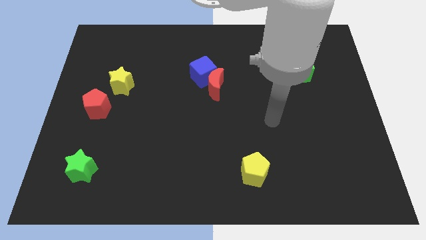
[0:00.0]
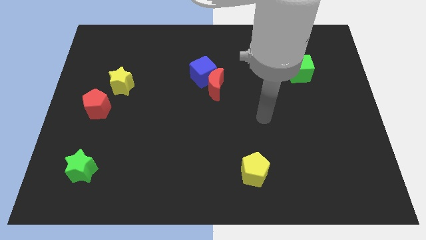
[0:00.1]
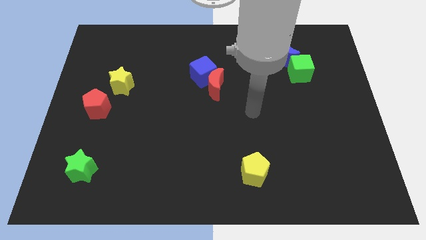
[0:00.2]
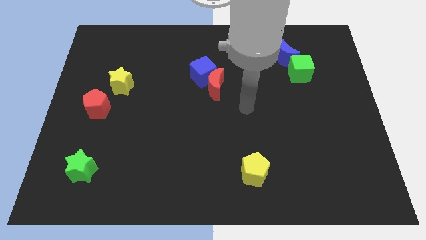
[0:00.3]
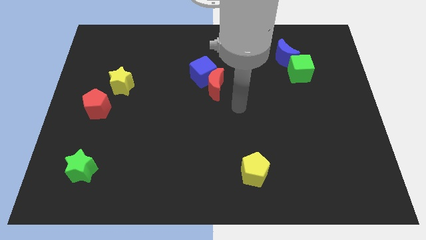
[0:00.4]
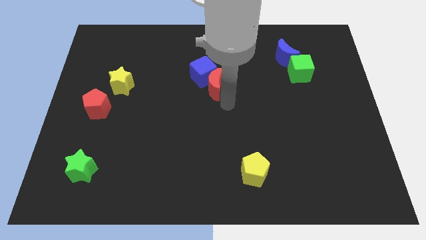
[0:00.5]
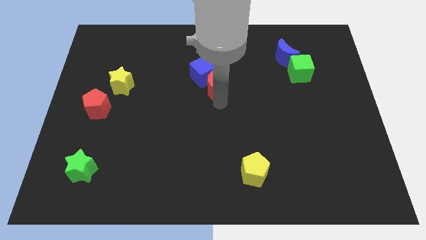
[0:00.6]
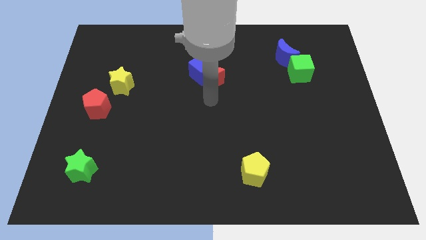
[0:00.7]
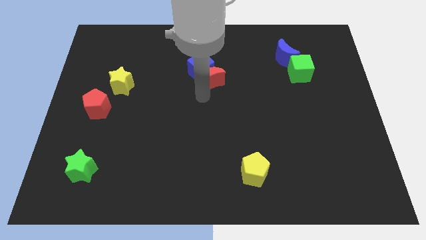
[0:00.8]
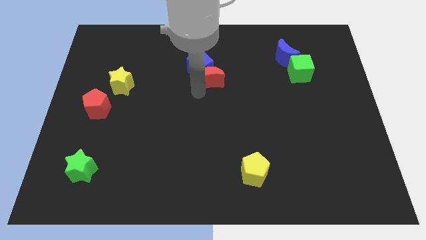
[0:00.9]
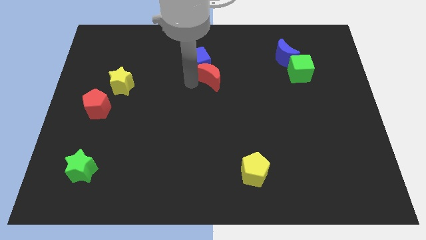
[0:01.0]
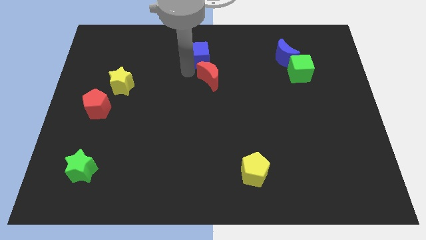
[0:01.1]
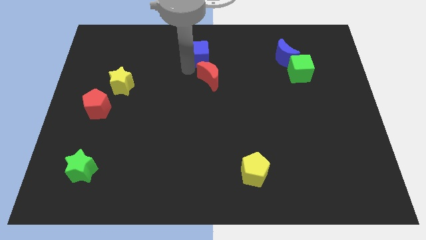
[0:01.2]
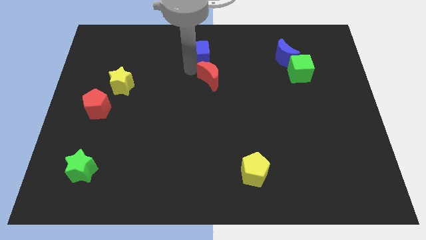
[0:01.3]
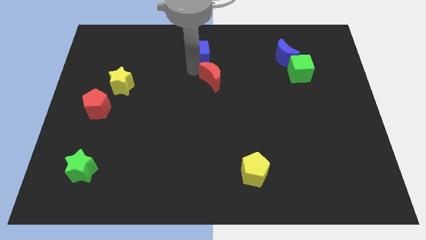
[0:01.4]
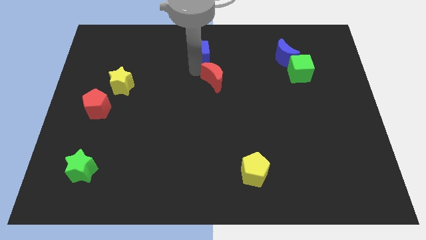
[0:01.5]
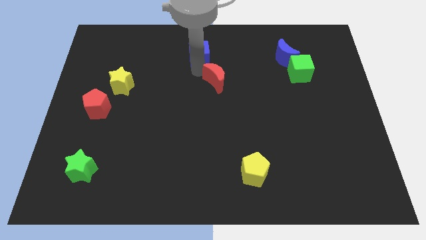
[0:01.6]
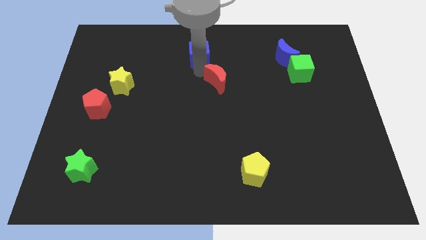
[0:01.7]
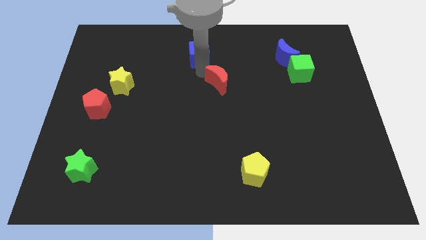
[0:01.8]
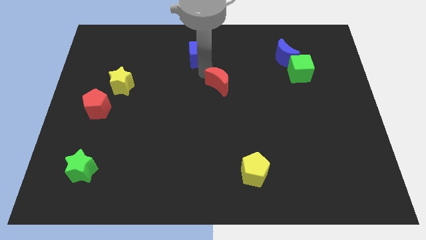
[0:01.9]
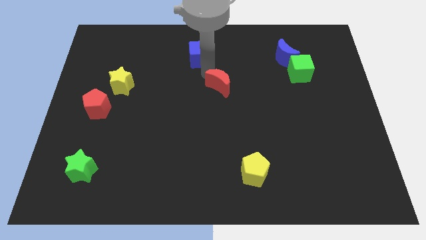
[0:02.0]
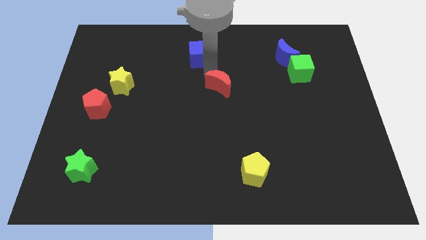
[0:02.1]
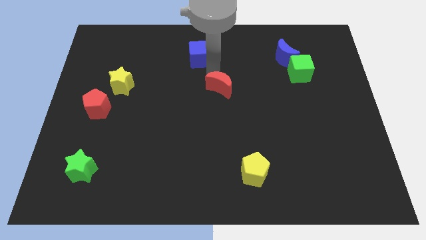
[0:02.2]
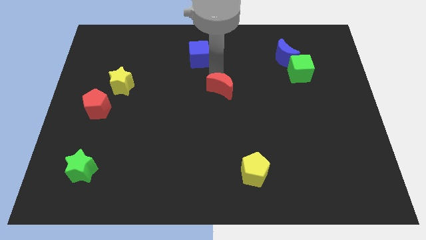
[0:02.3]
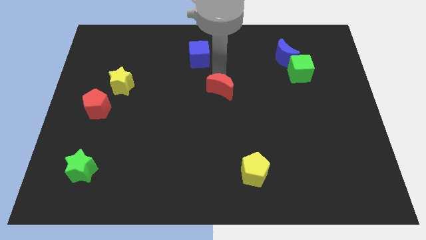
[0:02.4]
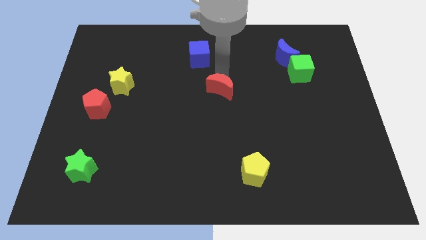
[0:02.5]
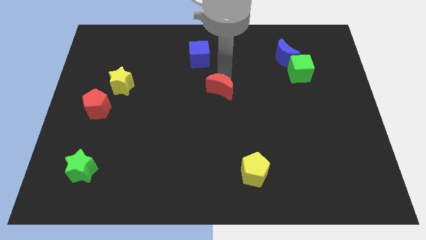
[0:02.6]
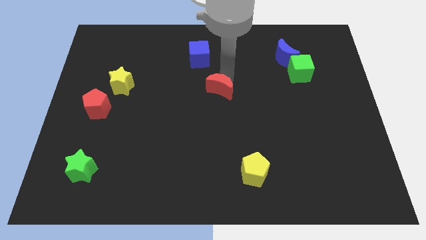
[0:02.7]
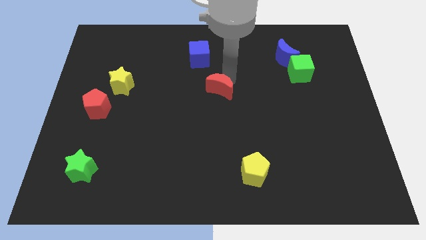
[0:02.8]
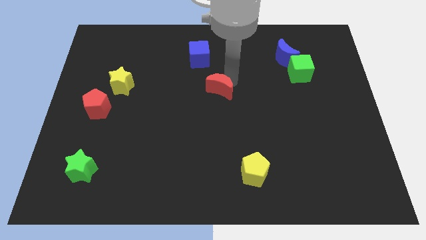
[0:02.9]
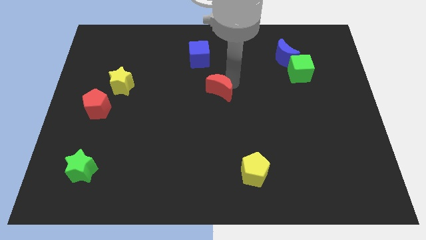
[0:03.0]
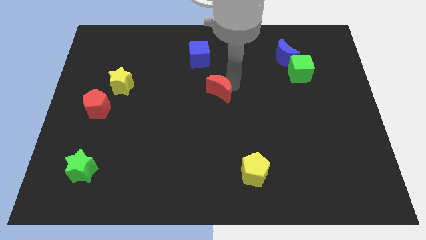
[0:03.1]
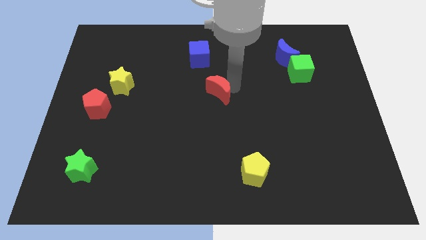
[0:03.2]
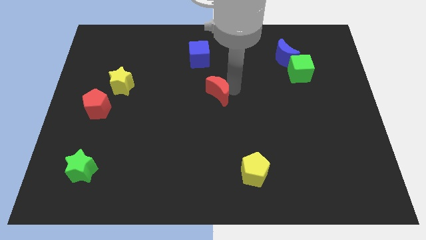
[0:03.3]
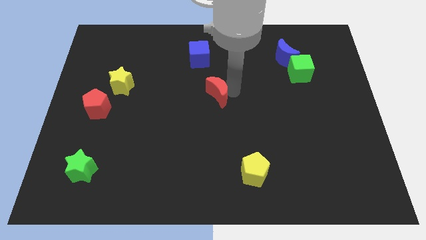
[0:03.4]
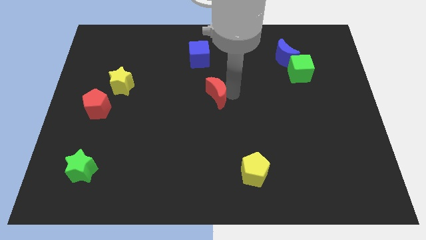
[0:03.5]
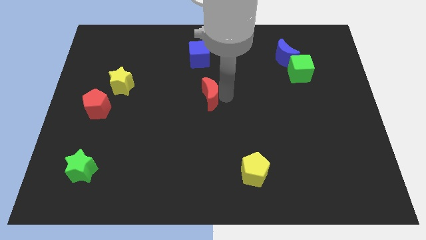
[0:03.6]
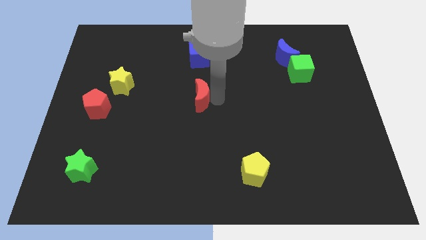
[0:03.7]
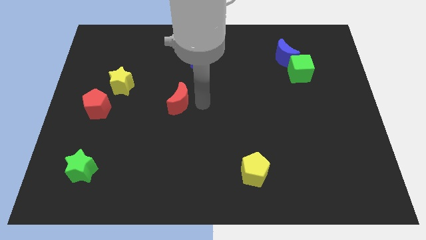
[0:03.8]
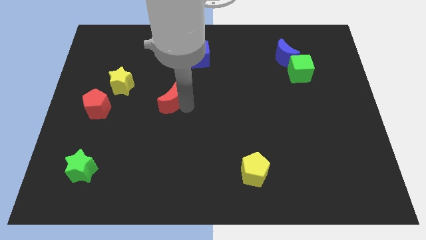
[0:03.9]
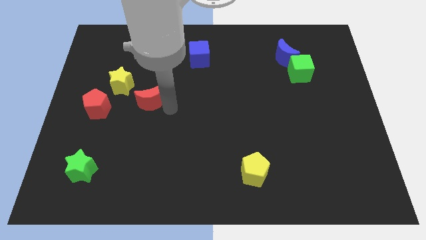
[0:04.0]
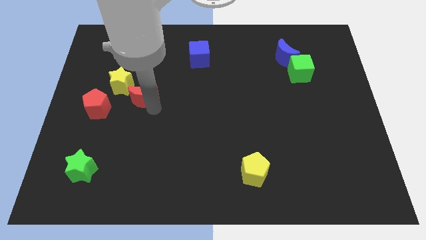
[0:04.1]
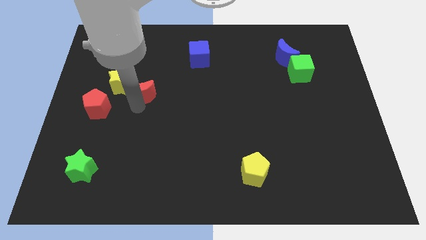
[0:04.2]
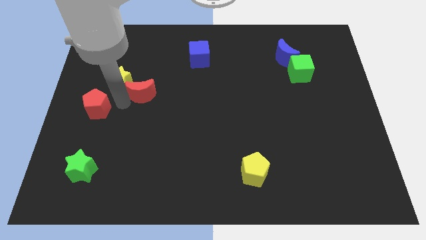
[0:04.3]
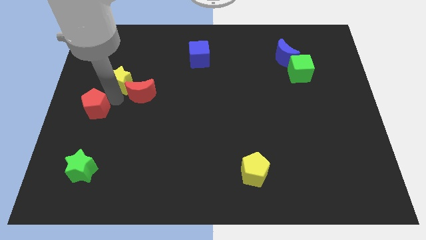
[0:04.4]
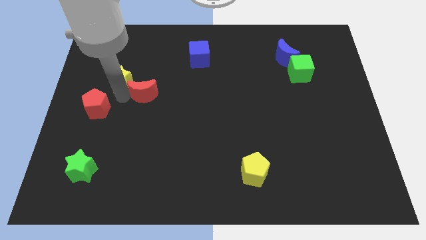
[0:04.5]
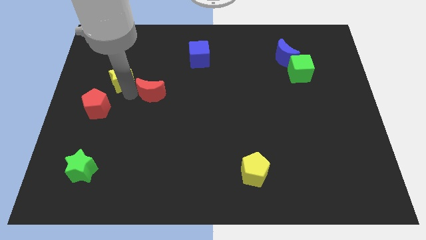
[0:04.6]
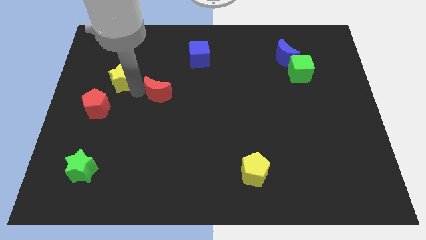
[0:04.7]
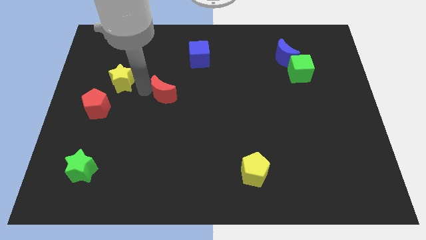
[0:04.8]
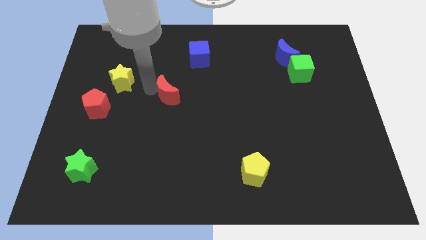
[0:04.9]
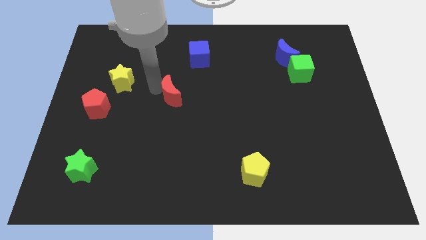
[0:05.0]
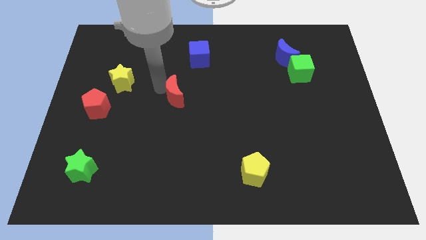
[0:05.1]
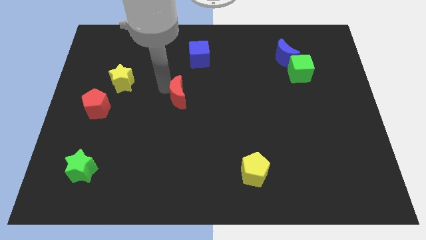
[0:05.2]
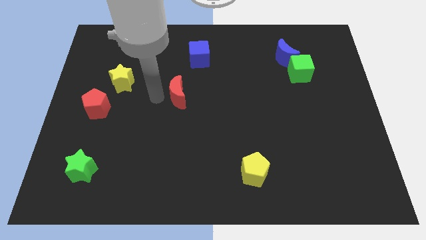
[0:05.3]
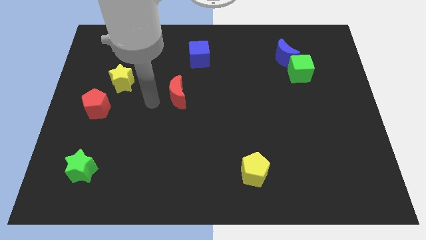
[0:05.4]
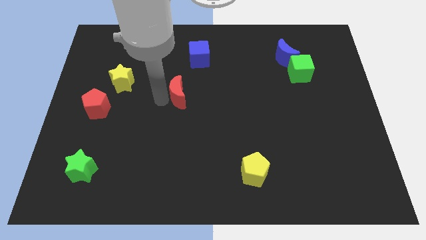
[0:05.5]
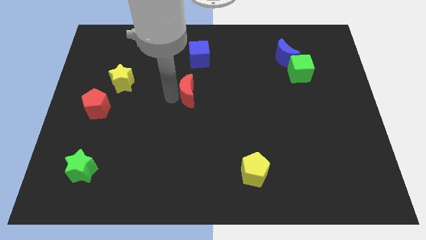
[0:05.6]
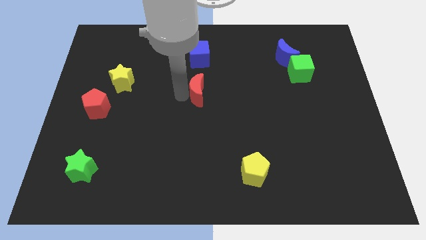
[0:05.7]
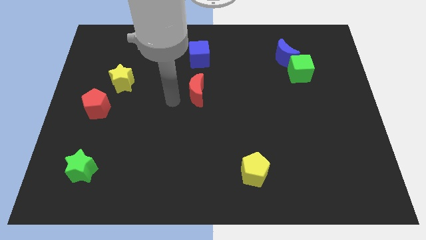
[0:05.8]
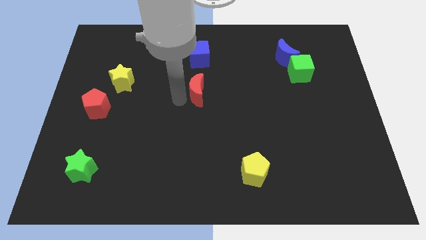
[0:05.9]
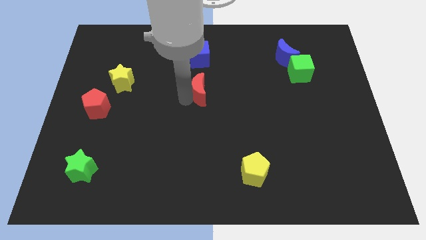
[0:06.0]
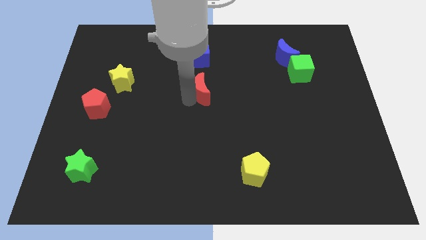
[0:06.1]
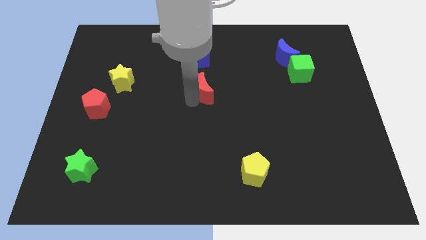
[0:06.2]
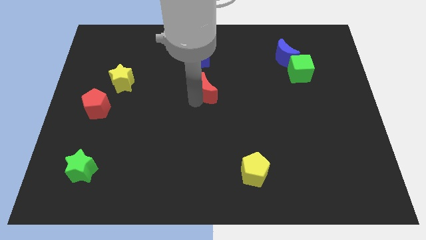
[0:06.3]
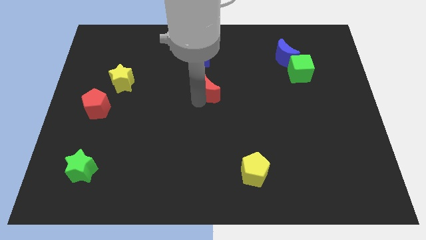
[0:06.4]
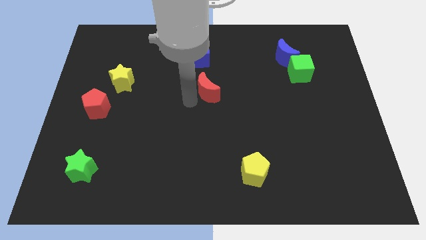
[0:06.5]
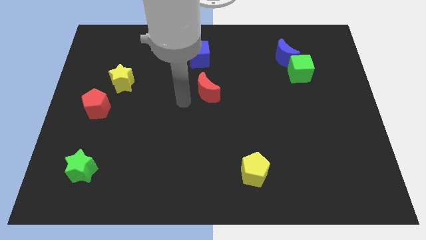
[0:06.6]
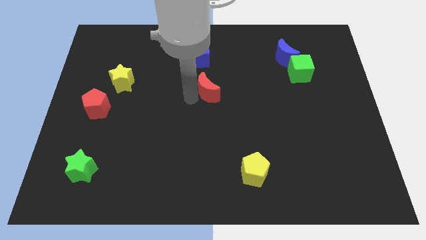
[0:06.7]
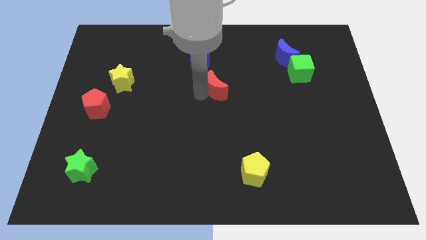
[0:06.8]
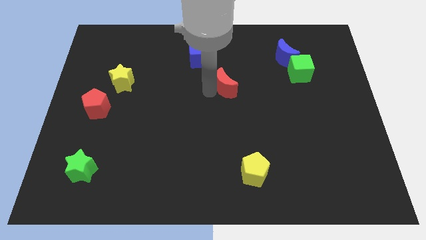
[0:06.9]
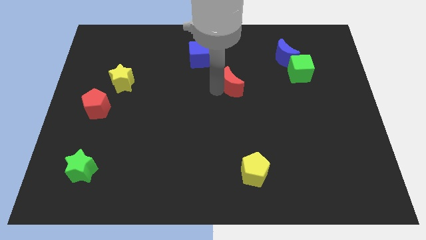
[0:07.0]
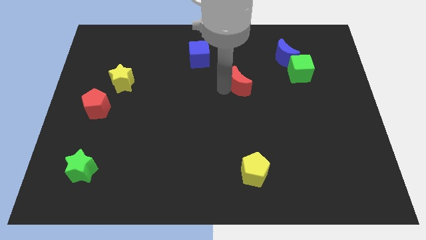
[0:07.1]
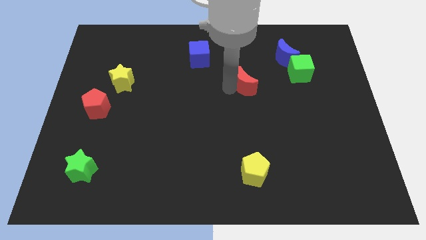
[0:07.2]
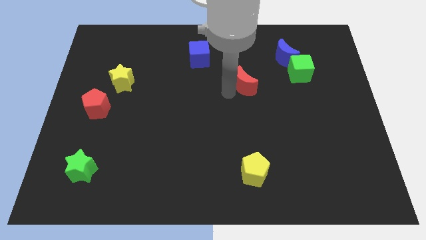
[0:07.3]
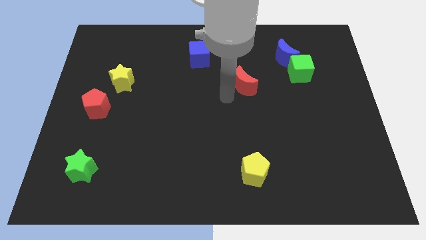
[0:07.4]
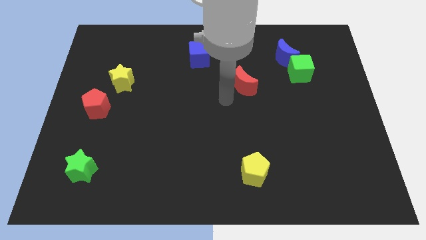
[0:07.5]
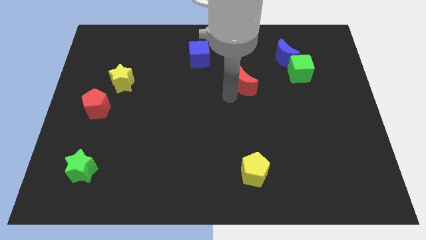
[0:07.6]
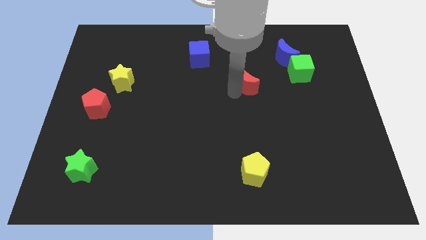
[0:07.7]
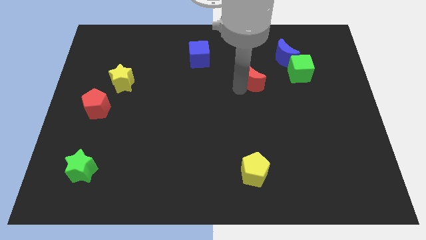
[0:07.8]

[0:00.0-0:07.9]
put the red moon to the left side of the green cube

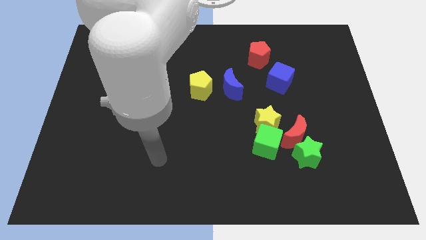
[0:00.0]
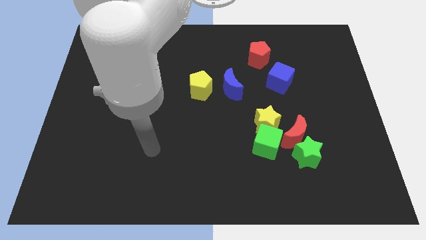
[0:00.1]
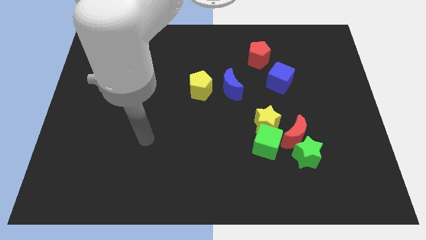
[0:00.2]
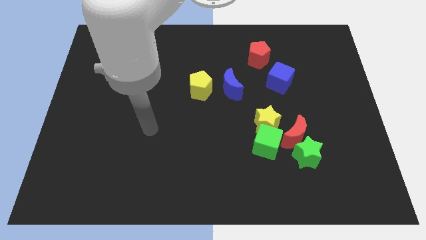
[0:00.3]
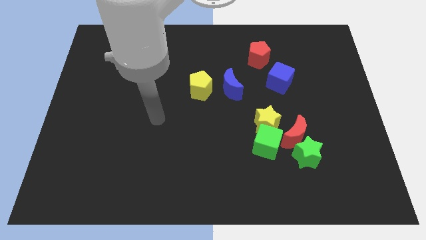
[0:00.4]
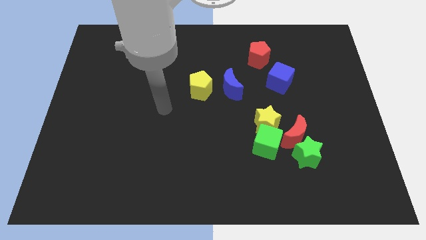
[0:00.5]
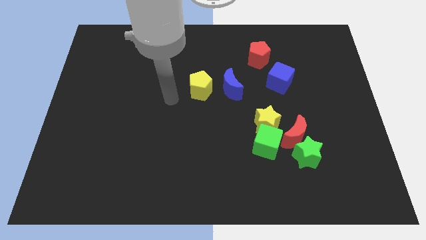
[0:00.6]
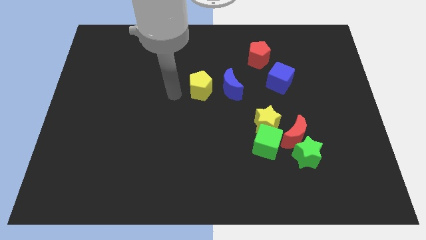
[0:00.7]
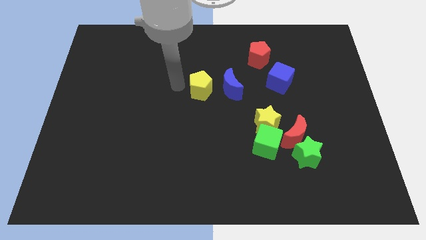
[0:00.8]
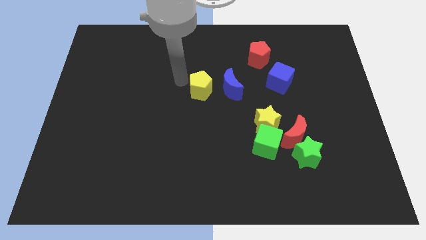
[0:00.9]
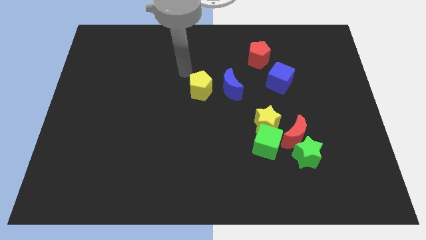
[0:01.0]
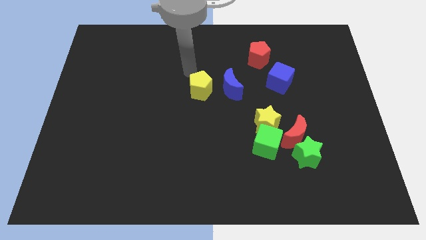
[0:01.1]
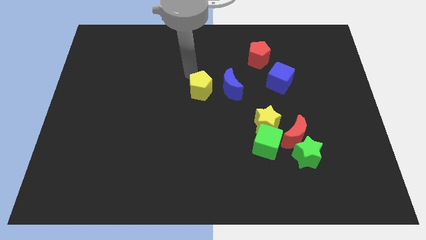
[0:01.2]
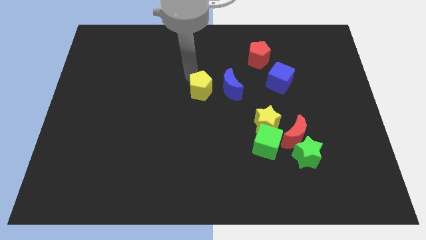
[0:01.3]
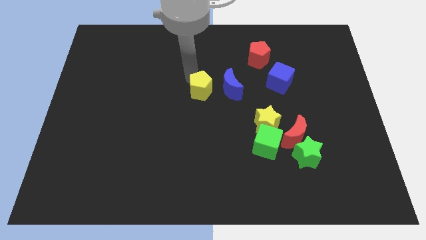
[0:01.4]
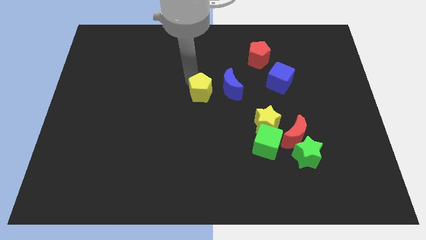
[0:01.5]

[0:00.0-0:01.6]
push the yellow pentagon to the bottom left side of the blue moon
